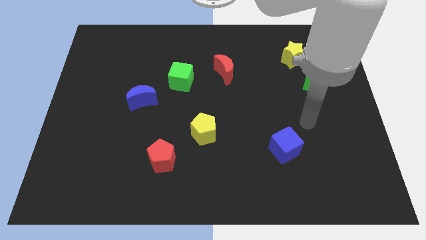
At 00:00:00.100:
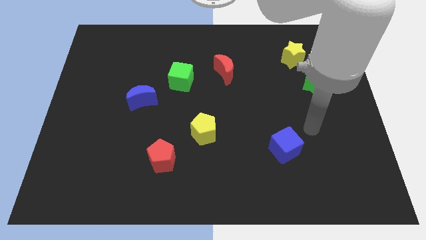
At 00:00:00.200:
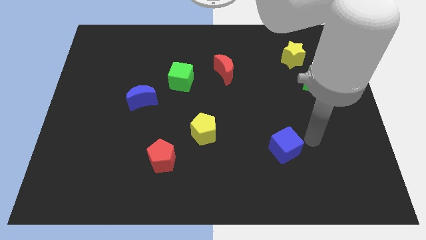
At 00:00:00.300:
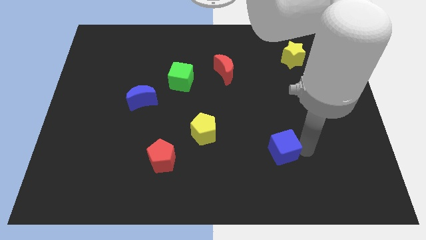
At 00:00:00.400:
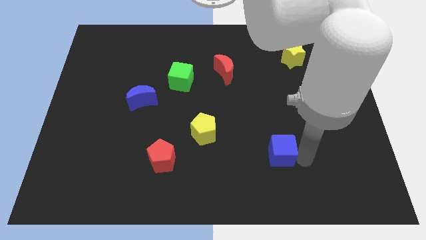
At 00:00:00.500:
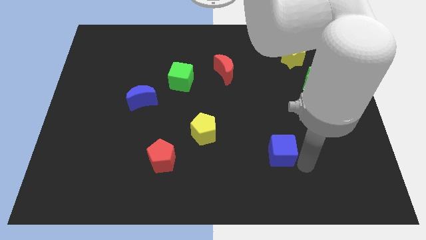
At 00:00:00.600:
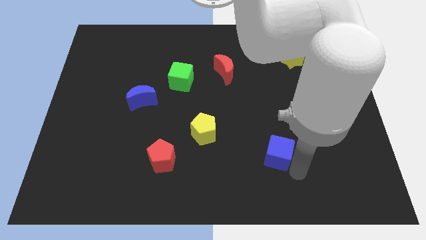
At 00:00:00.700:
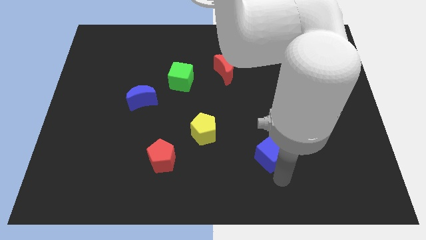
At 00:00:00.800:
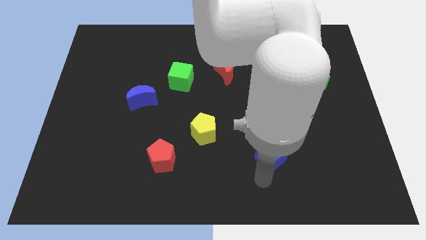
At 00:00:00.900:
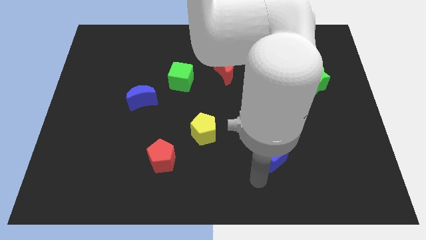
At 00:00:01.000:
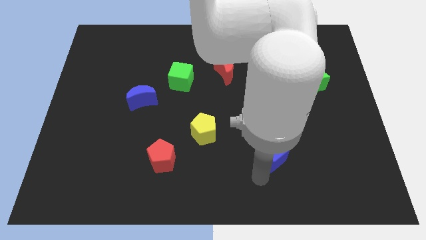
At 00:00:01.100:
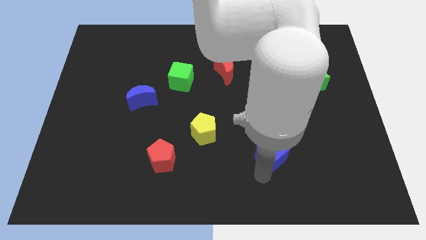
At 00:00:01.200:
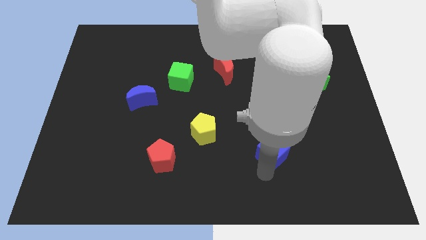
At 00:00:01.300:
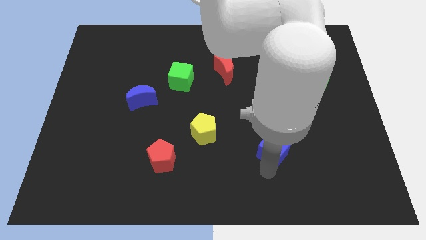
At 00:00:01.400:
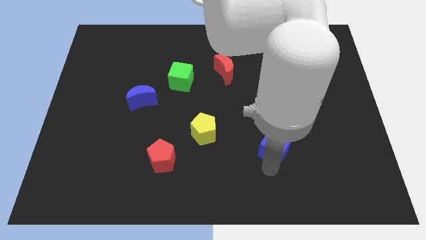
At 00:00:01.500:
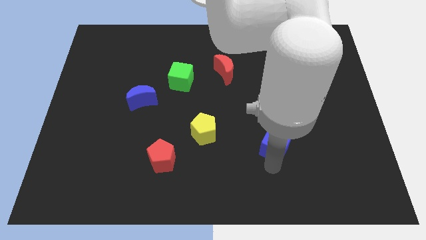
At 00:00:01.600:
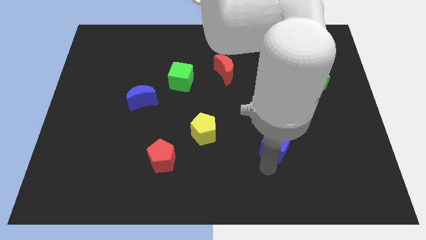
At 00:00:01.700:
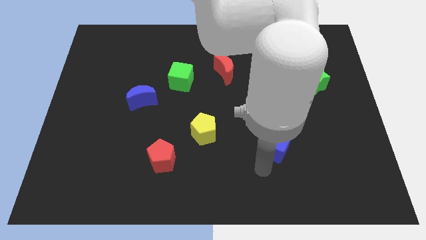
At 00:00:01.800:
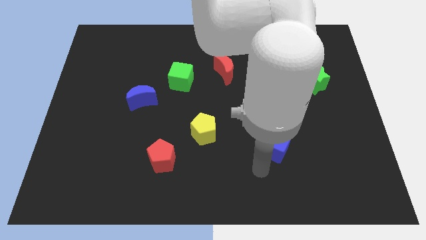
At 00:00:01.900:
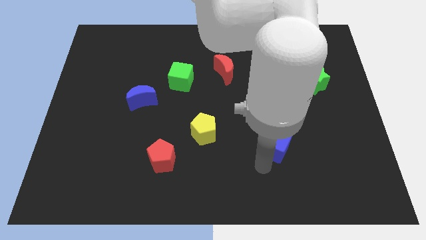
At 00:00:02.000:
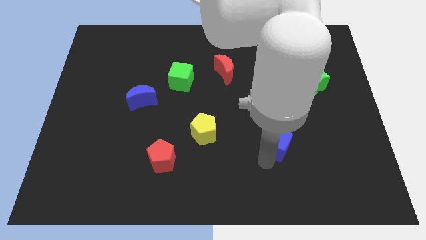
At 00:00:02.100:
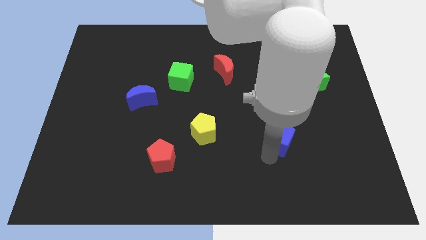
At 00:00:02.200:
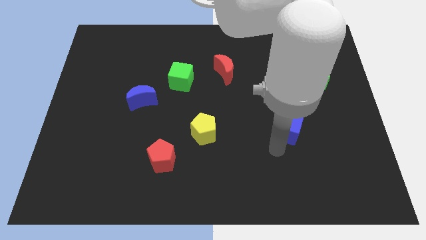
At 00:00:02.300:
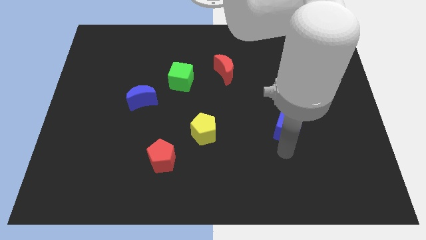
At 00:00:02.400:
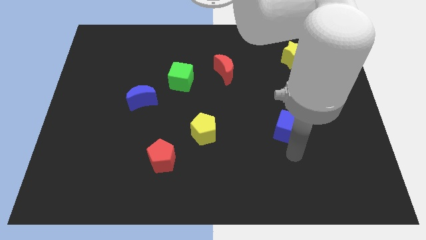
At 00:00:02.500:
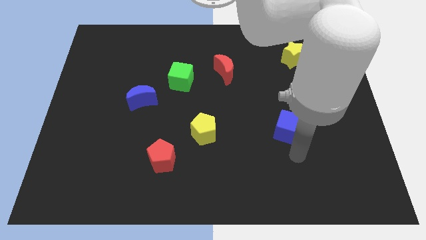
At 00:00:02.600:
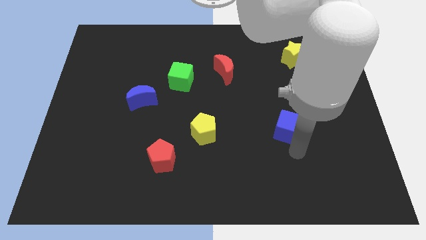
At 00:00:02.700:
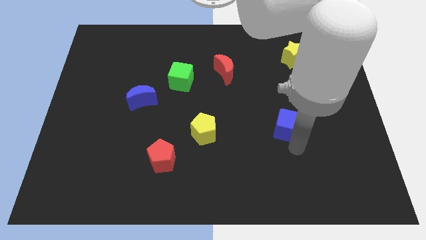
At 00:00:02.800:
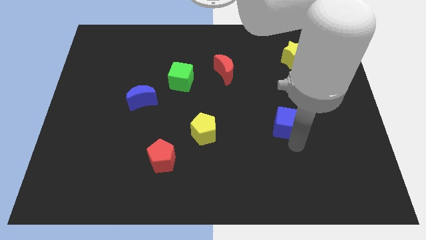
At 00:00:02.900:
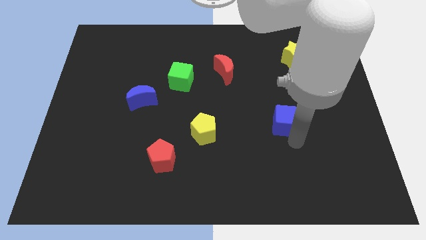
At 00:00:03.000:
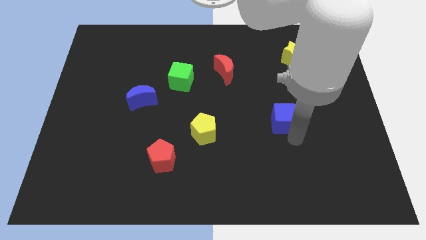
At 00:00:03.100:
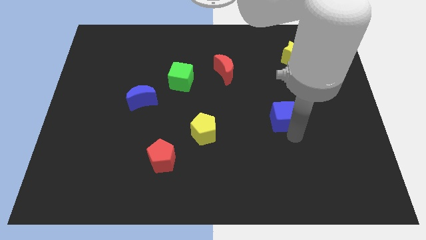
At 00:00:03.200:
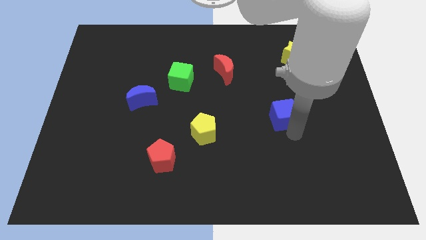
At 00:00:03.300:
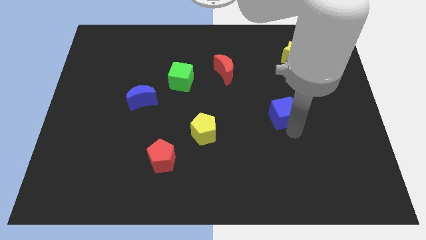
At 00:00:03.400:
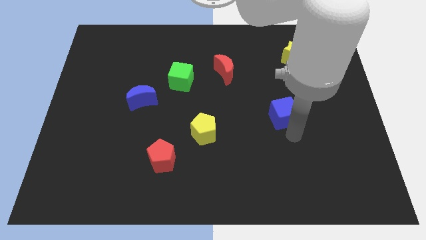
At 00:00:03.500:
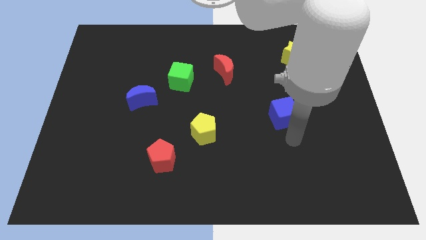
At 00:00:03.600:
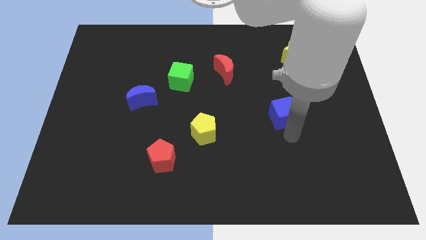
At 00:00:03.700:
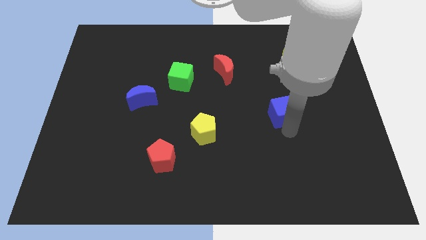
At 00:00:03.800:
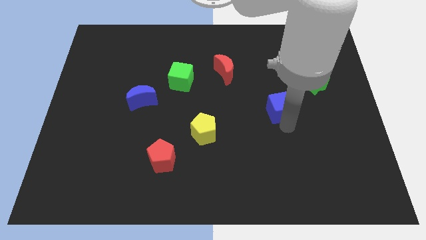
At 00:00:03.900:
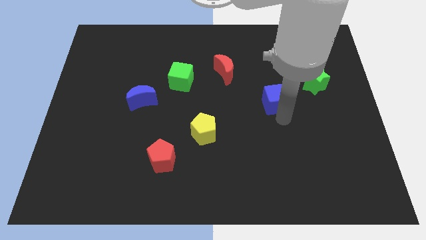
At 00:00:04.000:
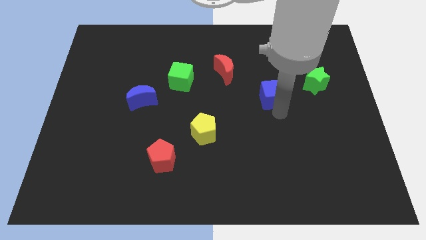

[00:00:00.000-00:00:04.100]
move the blue cube to the left of the green star

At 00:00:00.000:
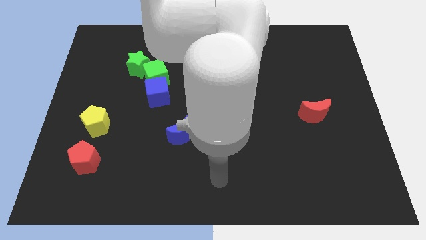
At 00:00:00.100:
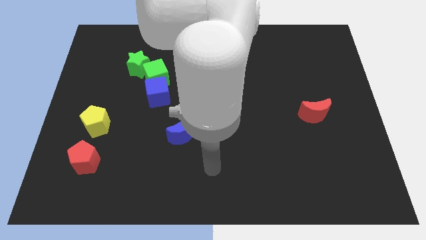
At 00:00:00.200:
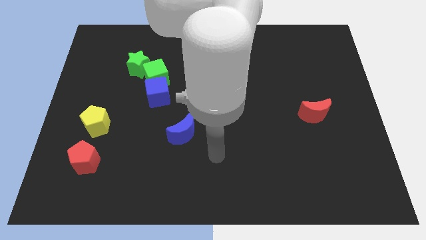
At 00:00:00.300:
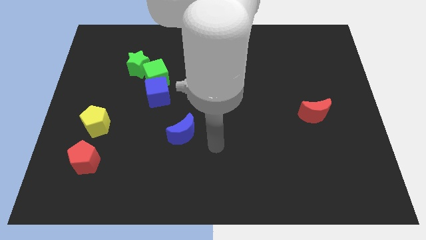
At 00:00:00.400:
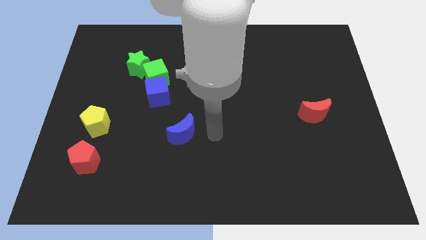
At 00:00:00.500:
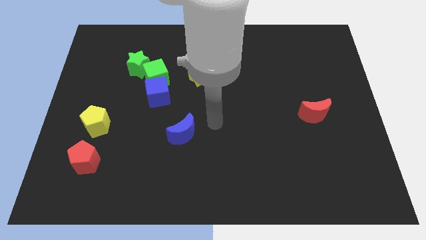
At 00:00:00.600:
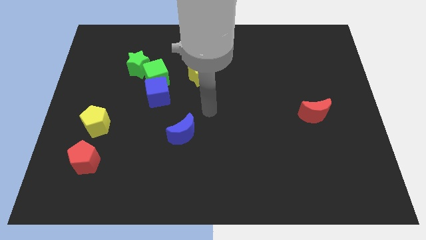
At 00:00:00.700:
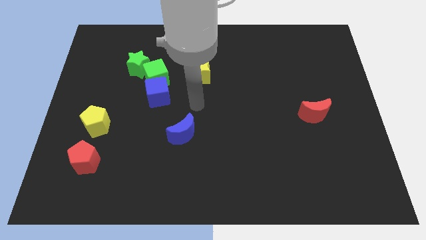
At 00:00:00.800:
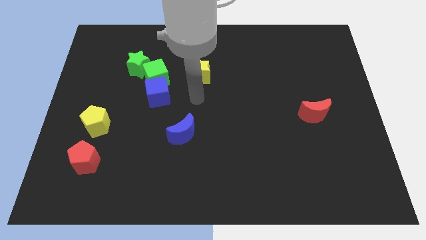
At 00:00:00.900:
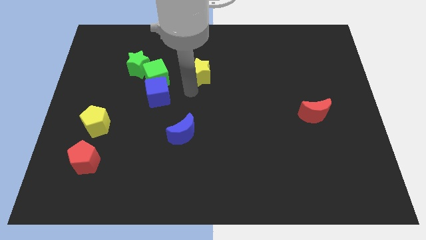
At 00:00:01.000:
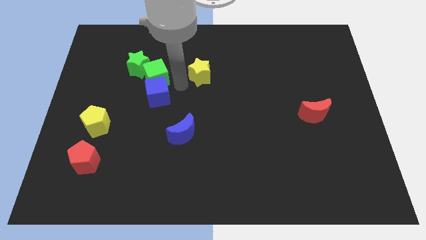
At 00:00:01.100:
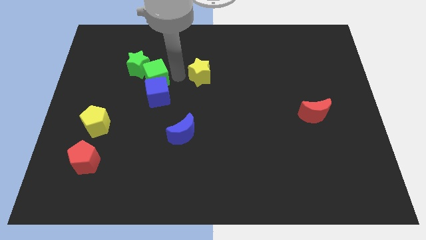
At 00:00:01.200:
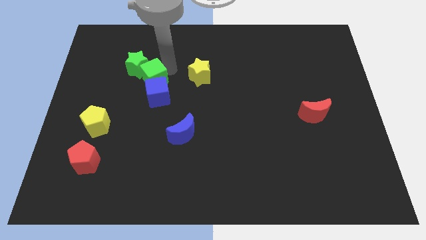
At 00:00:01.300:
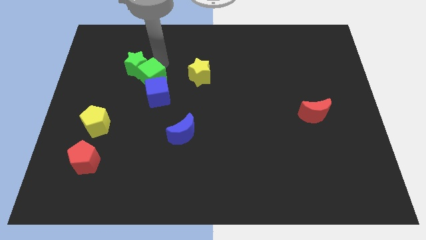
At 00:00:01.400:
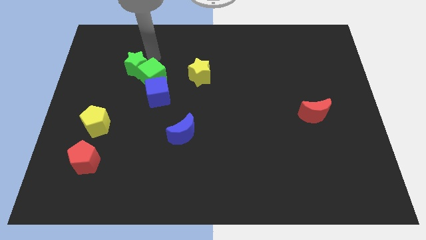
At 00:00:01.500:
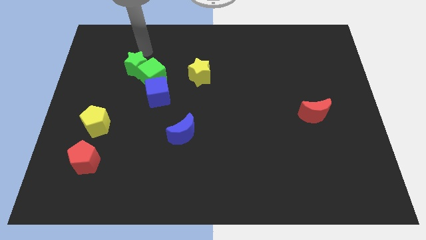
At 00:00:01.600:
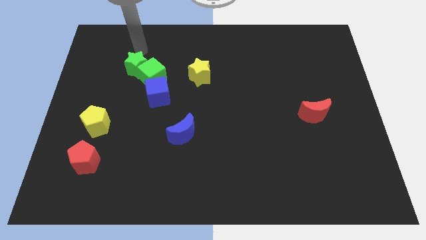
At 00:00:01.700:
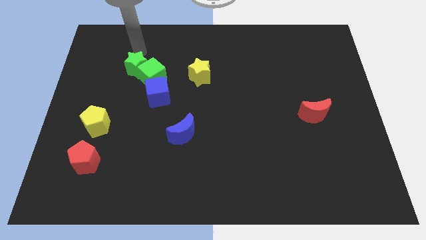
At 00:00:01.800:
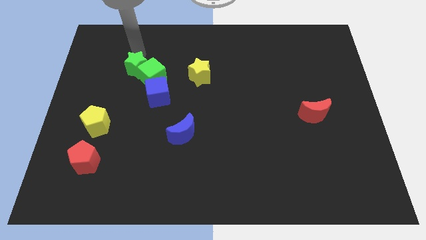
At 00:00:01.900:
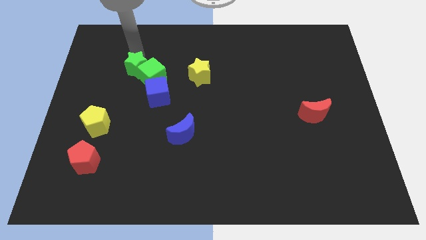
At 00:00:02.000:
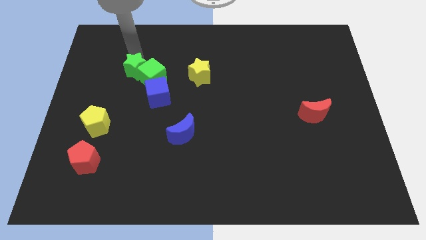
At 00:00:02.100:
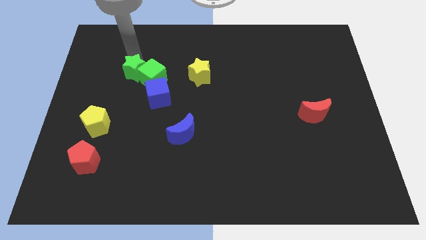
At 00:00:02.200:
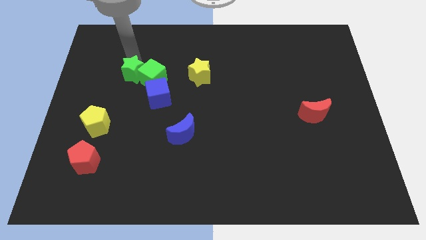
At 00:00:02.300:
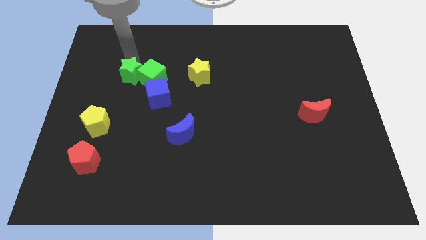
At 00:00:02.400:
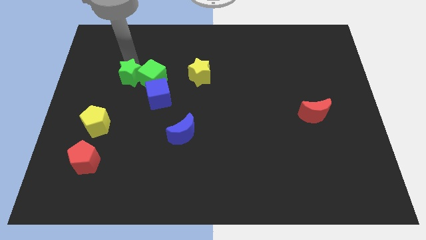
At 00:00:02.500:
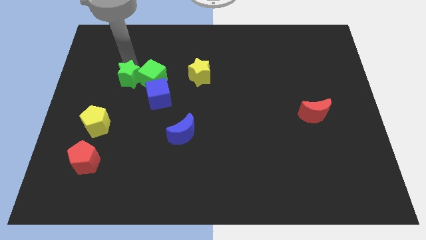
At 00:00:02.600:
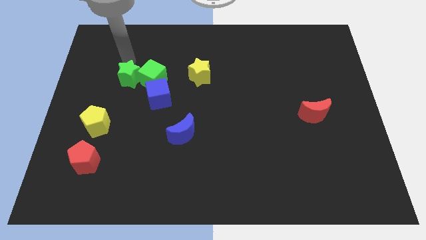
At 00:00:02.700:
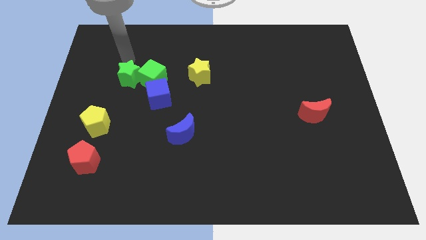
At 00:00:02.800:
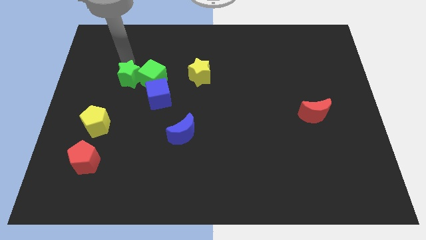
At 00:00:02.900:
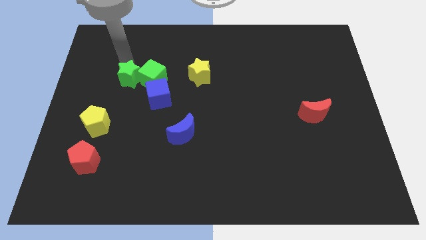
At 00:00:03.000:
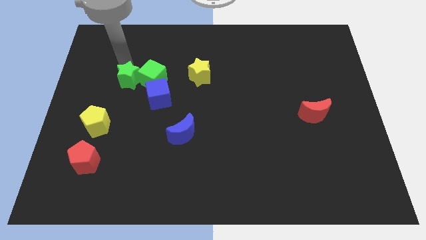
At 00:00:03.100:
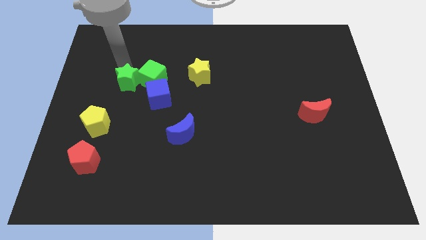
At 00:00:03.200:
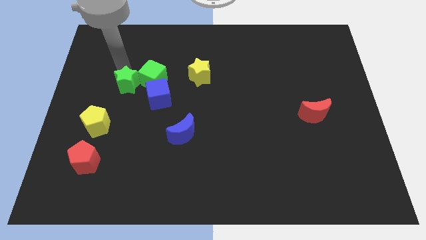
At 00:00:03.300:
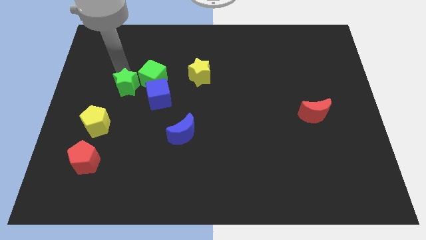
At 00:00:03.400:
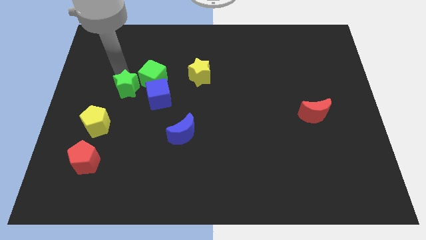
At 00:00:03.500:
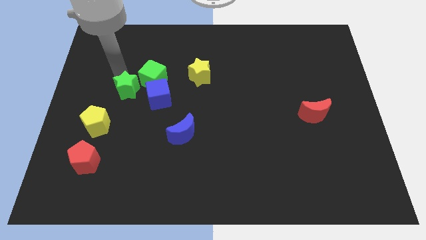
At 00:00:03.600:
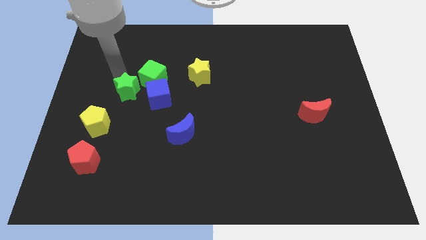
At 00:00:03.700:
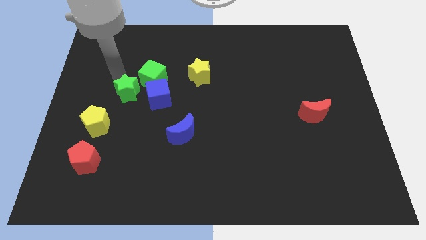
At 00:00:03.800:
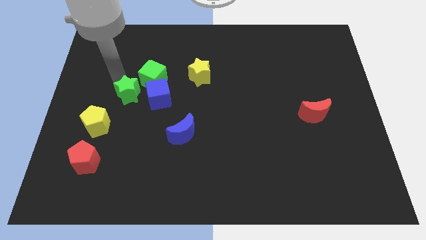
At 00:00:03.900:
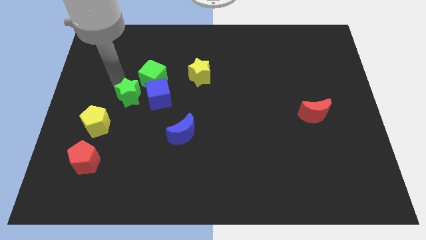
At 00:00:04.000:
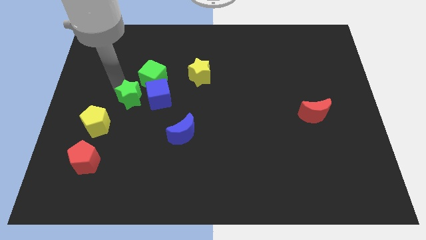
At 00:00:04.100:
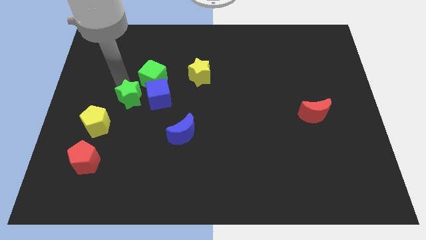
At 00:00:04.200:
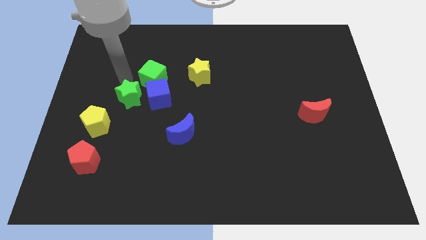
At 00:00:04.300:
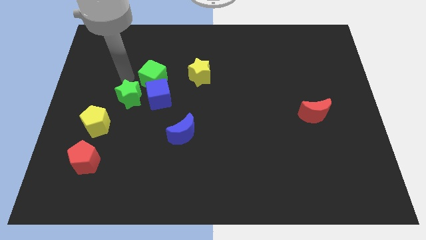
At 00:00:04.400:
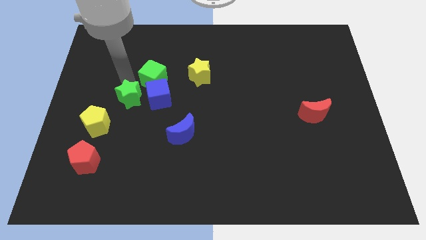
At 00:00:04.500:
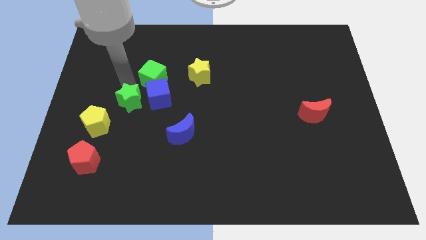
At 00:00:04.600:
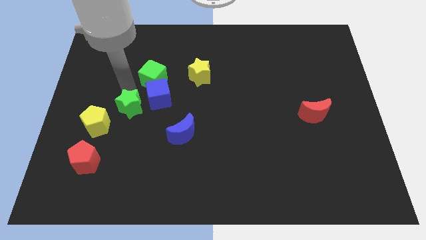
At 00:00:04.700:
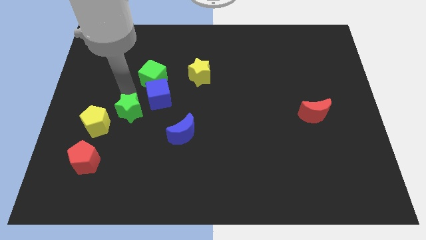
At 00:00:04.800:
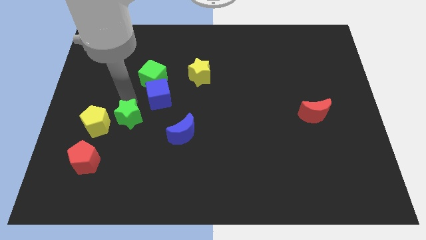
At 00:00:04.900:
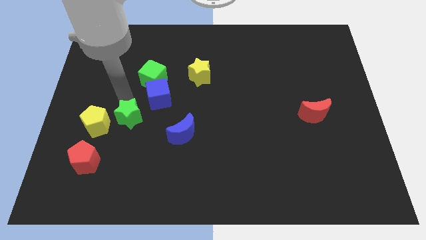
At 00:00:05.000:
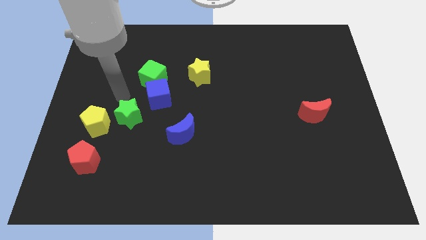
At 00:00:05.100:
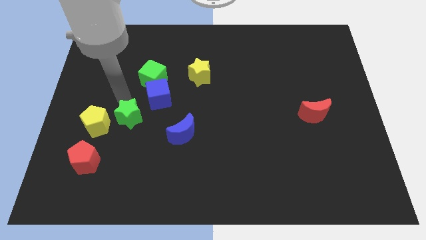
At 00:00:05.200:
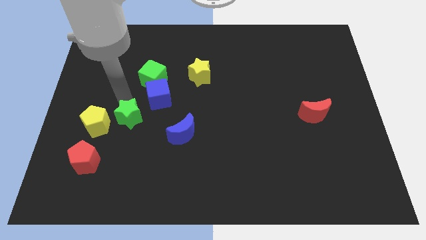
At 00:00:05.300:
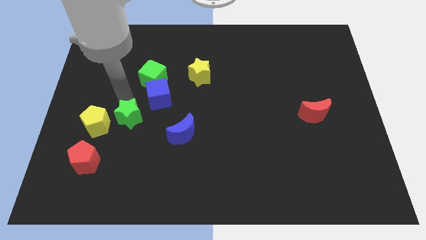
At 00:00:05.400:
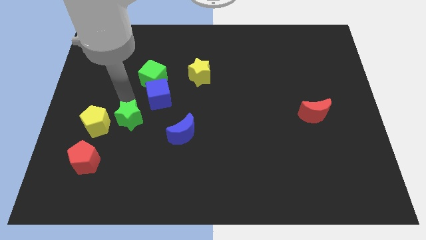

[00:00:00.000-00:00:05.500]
put the green star just left of the blue moon
